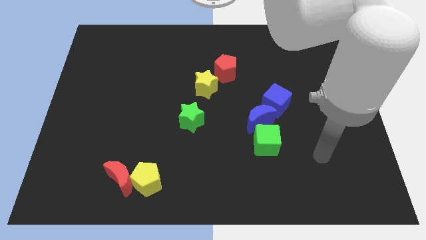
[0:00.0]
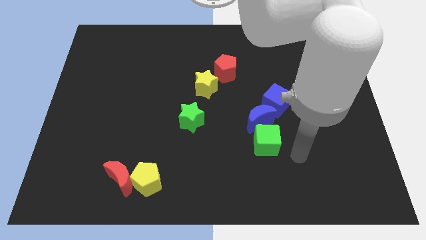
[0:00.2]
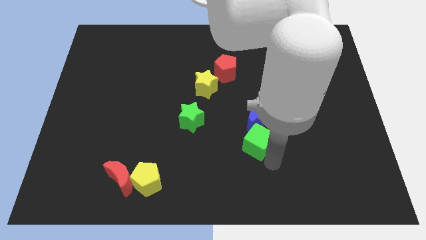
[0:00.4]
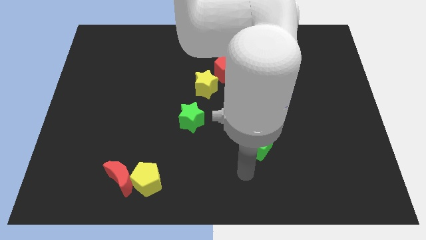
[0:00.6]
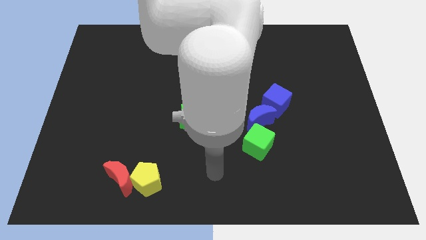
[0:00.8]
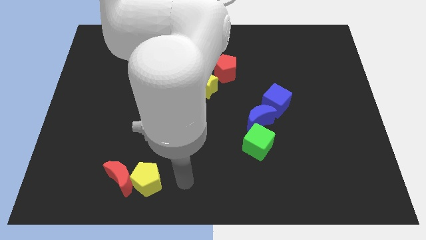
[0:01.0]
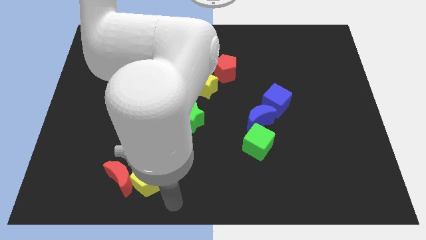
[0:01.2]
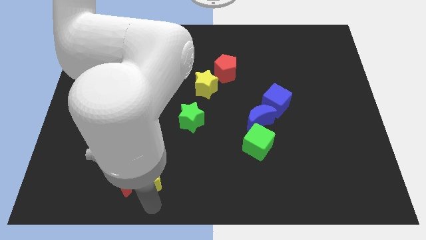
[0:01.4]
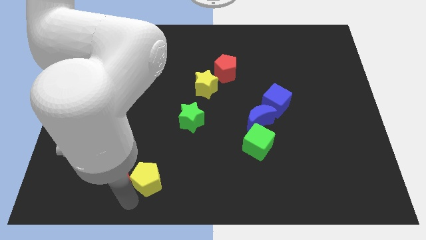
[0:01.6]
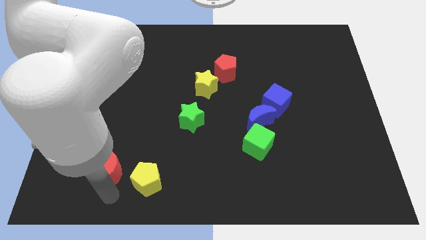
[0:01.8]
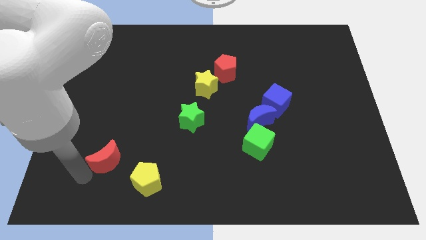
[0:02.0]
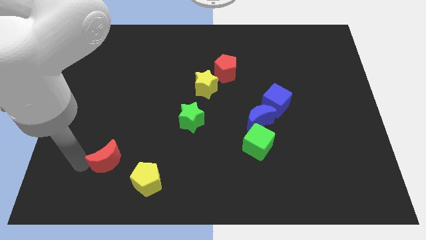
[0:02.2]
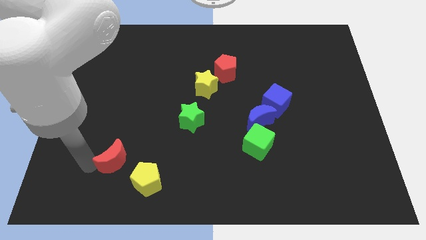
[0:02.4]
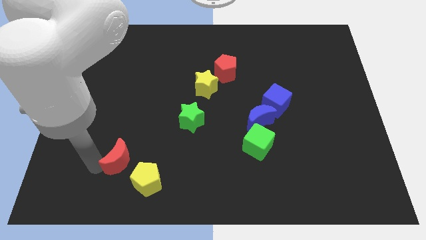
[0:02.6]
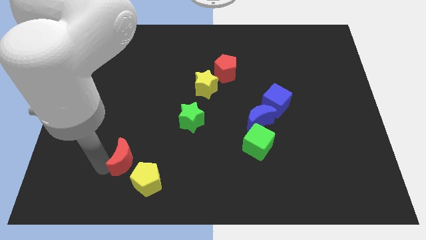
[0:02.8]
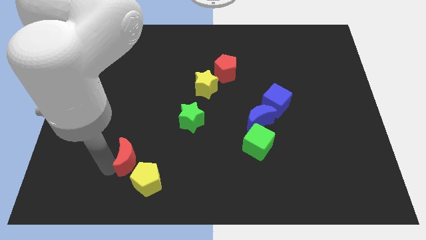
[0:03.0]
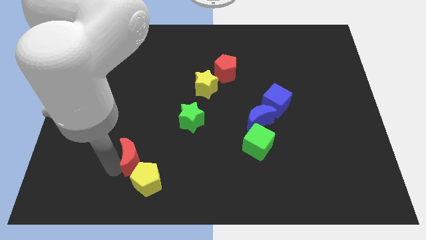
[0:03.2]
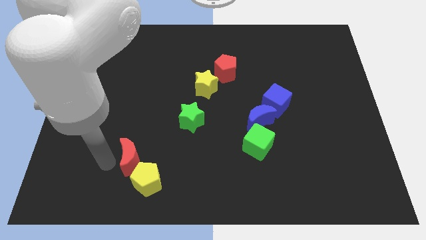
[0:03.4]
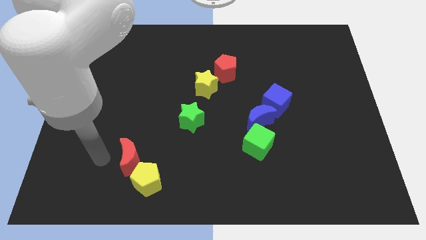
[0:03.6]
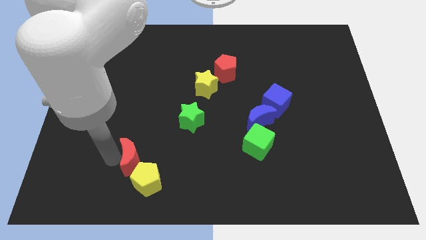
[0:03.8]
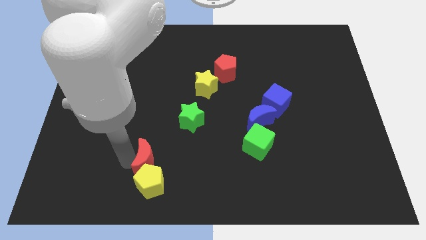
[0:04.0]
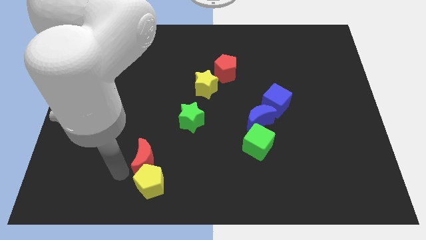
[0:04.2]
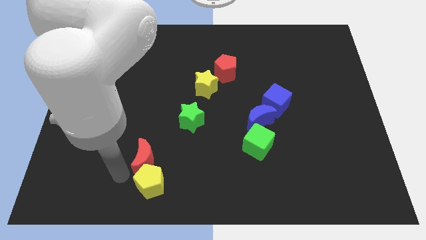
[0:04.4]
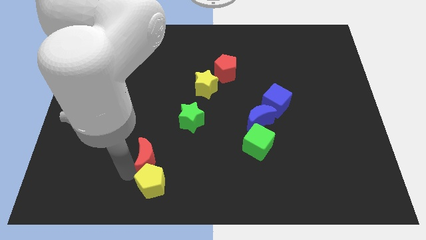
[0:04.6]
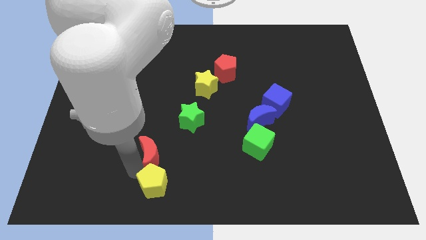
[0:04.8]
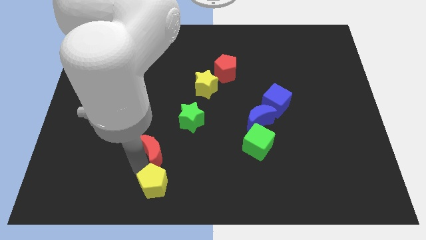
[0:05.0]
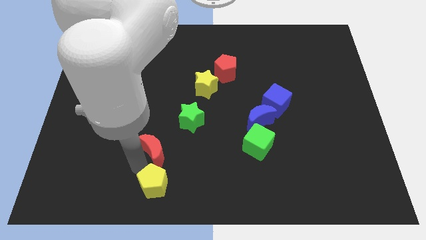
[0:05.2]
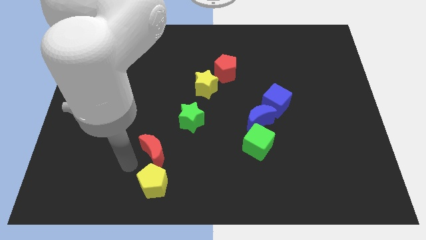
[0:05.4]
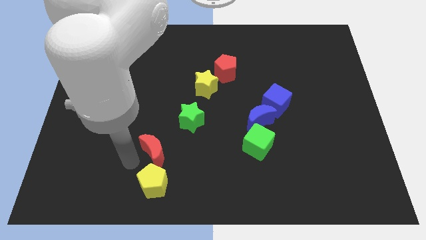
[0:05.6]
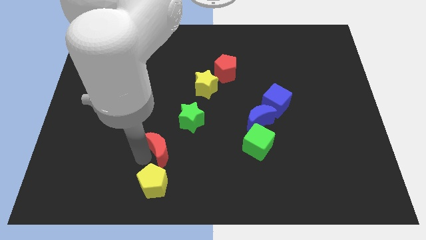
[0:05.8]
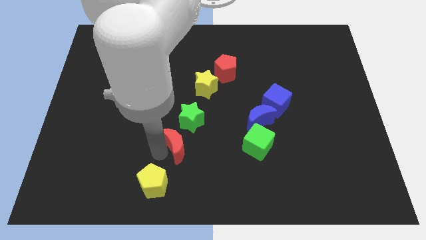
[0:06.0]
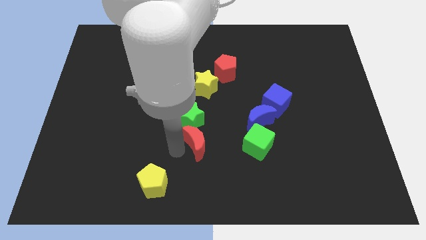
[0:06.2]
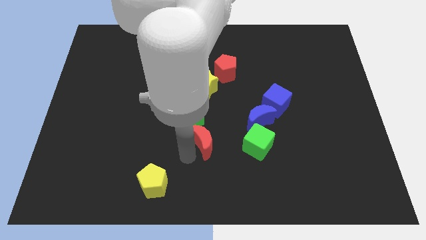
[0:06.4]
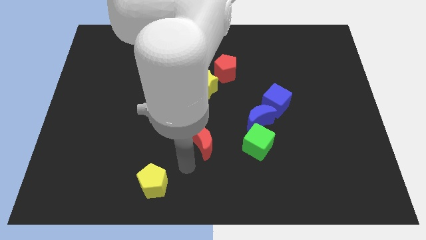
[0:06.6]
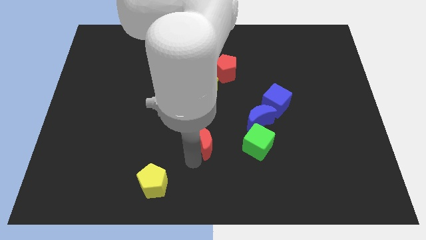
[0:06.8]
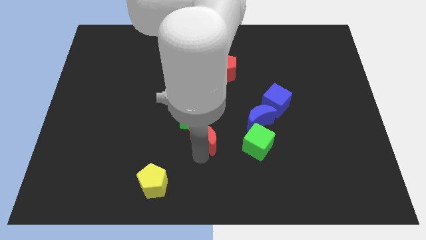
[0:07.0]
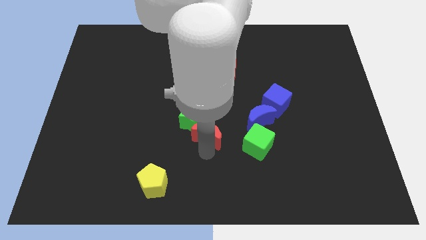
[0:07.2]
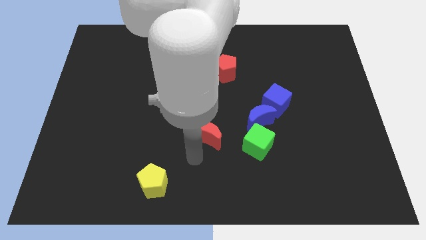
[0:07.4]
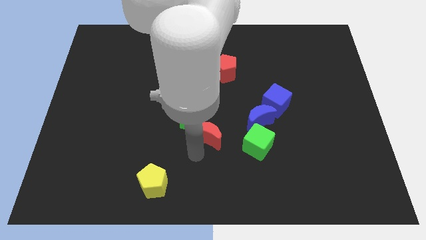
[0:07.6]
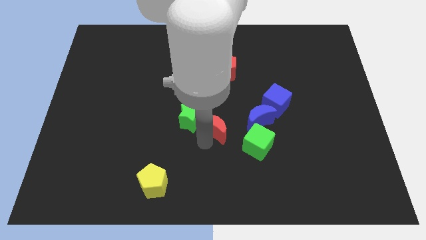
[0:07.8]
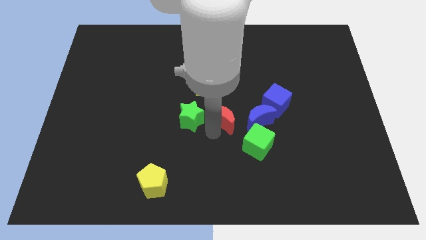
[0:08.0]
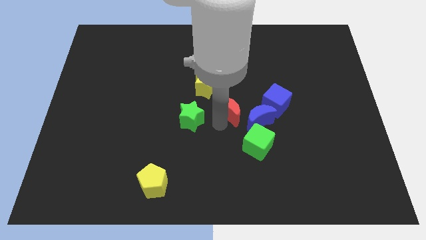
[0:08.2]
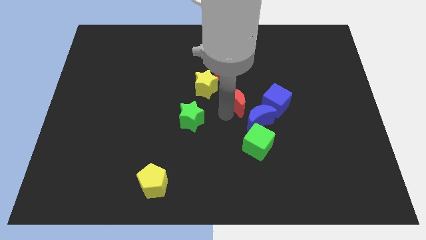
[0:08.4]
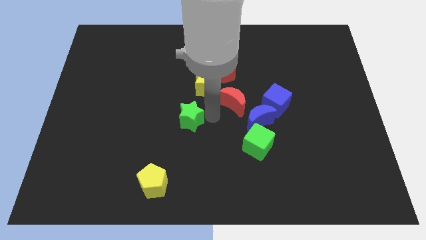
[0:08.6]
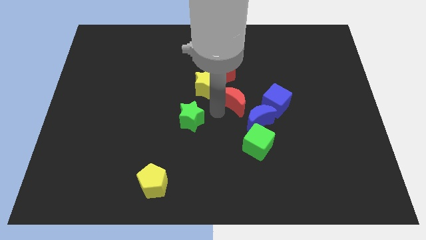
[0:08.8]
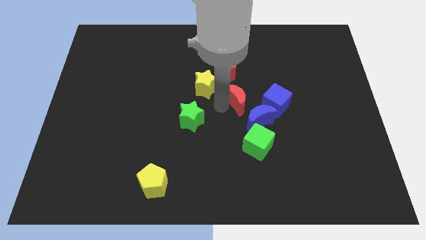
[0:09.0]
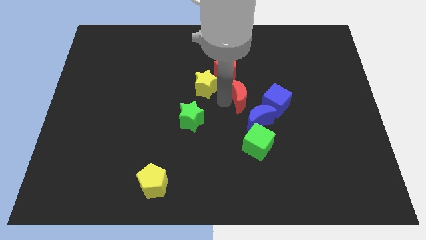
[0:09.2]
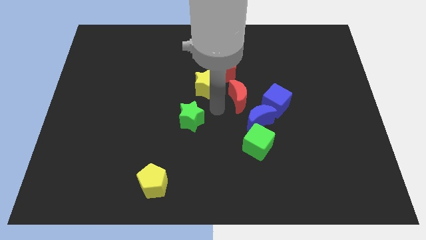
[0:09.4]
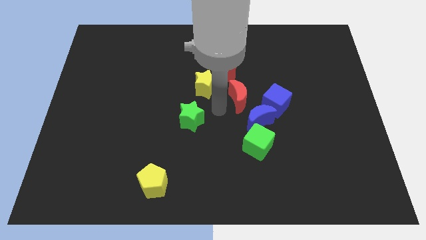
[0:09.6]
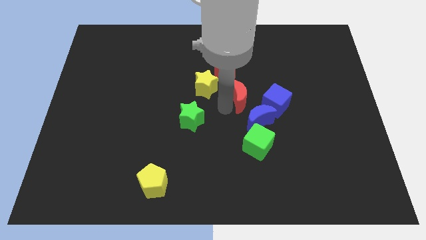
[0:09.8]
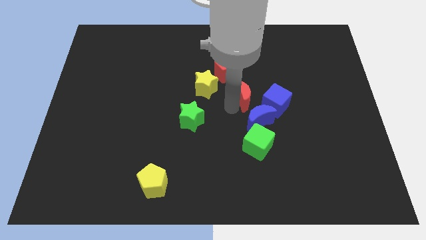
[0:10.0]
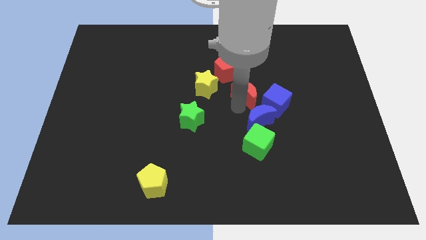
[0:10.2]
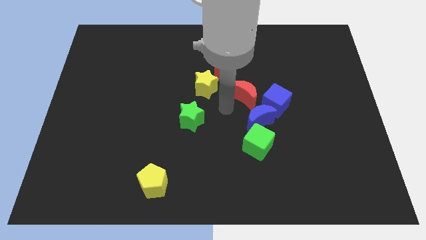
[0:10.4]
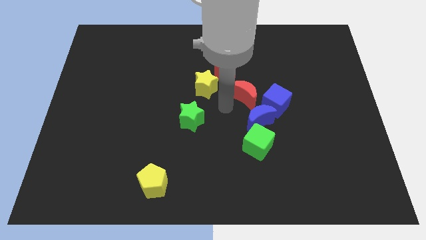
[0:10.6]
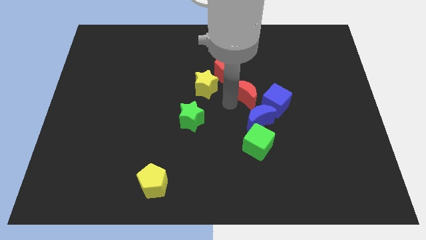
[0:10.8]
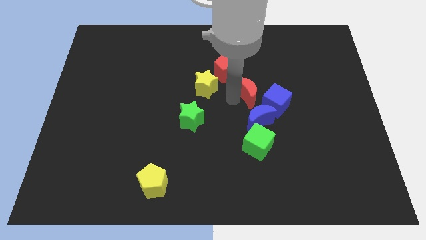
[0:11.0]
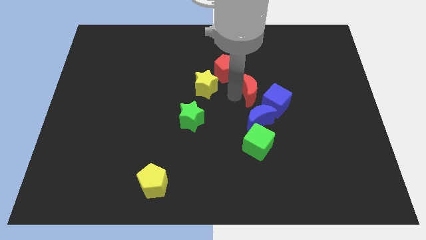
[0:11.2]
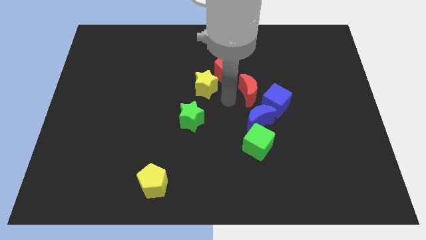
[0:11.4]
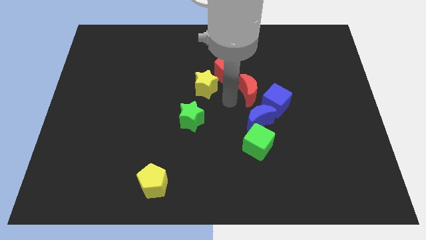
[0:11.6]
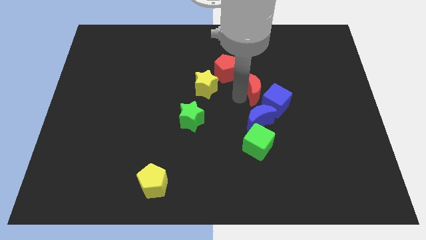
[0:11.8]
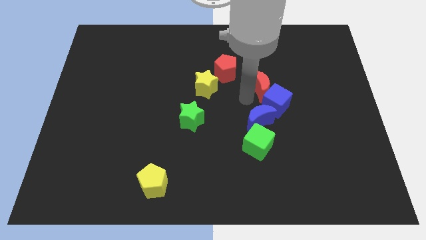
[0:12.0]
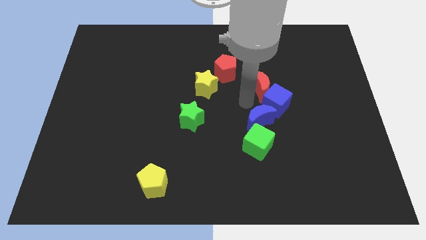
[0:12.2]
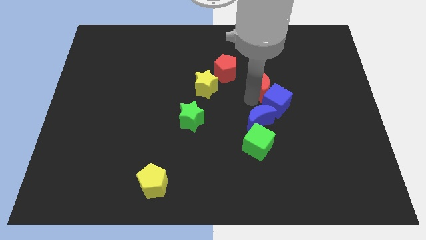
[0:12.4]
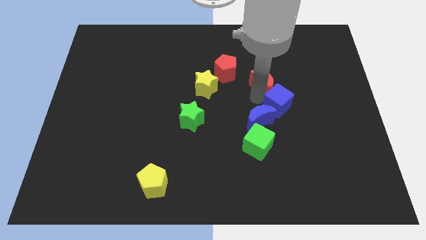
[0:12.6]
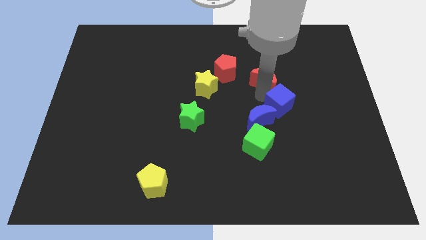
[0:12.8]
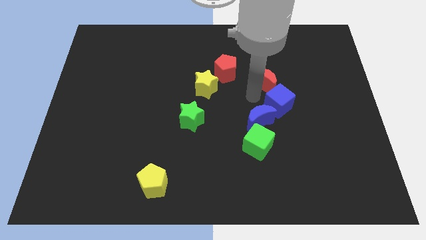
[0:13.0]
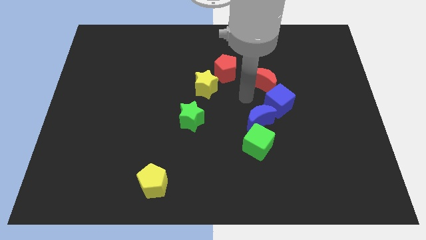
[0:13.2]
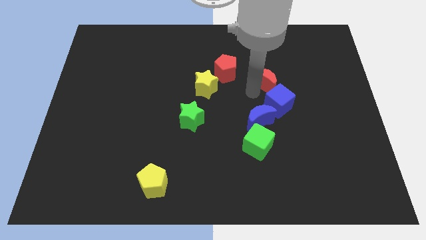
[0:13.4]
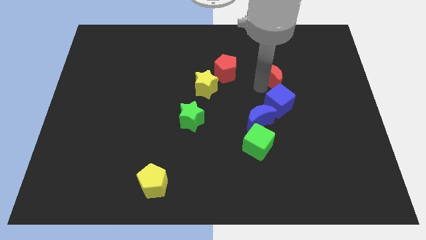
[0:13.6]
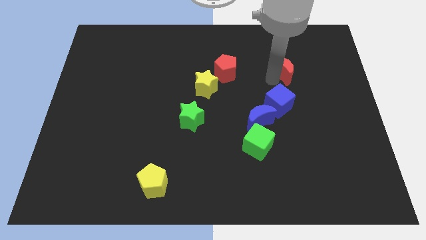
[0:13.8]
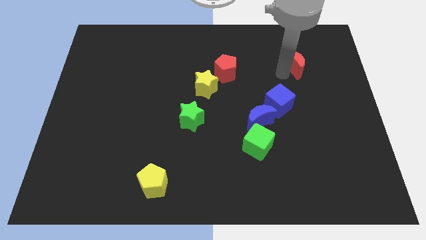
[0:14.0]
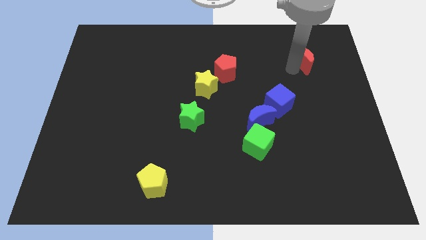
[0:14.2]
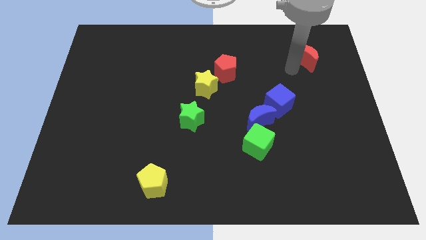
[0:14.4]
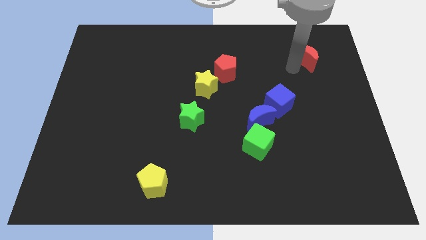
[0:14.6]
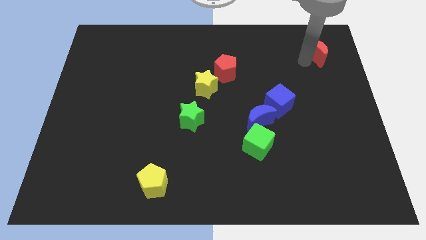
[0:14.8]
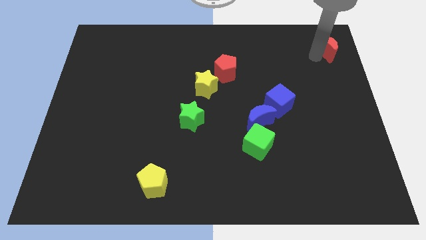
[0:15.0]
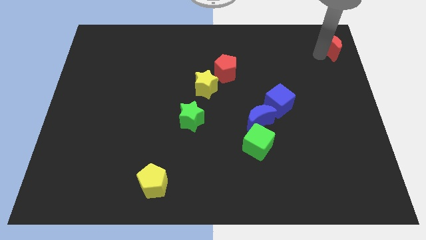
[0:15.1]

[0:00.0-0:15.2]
slide the red moon to the top right
